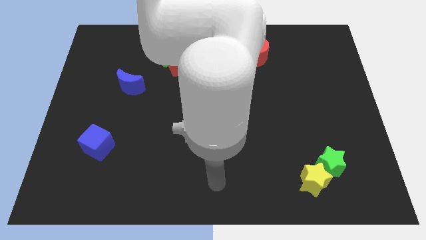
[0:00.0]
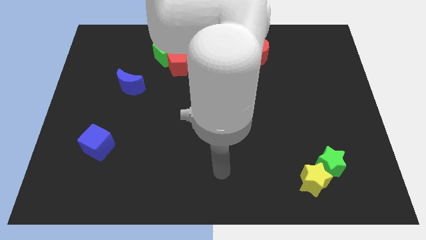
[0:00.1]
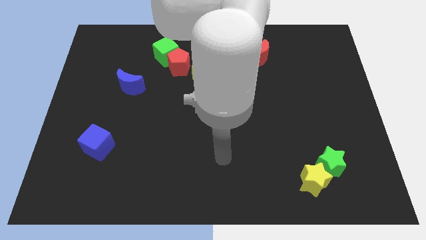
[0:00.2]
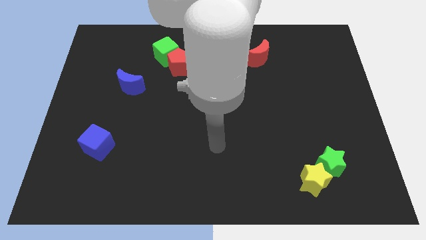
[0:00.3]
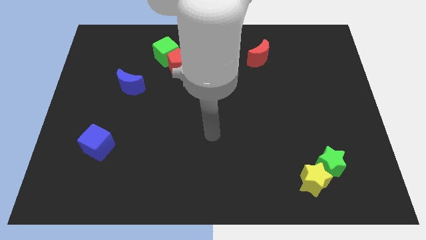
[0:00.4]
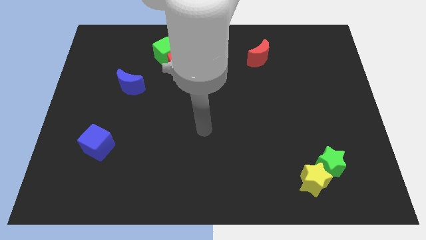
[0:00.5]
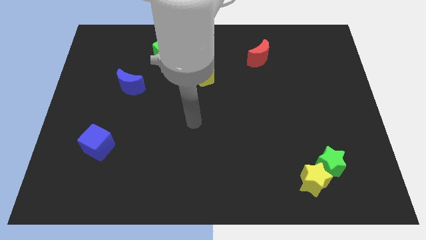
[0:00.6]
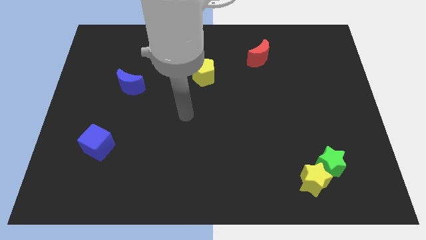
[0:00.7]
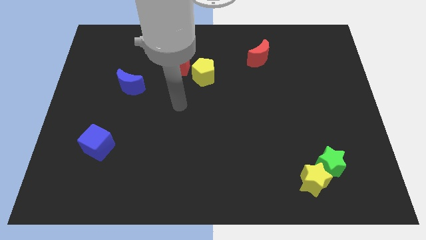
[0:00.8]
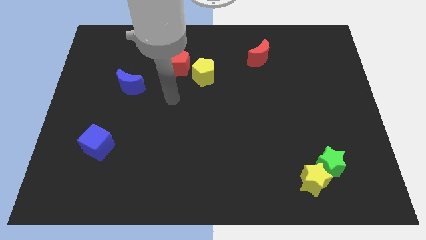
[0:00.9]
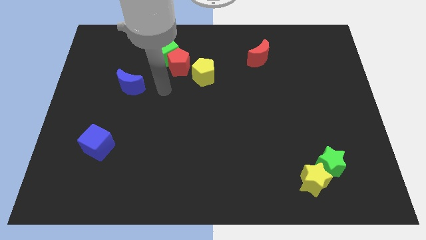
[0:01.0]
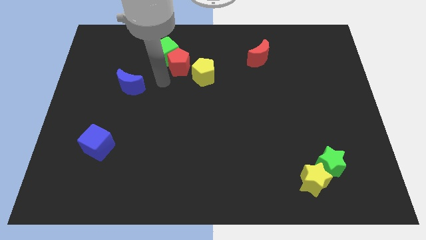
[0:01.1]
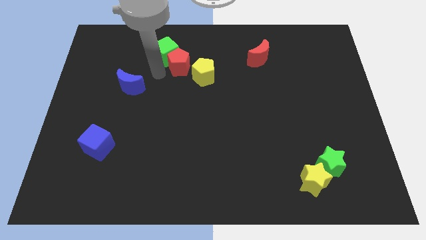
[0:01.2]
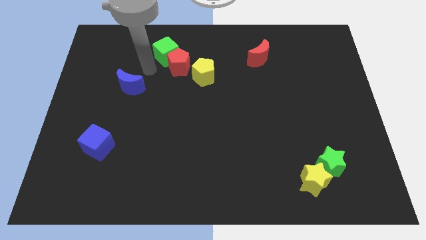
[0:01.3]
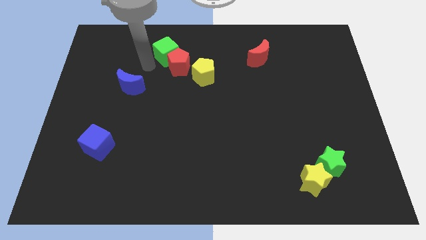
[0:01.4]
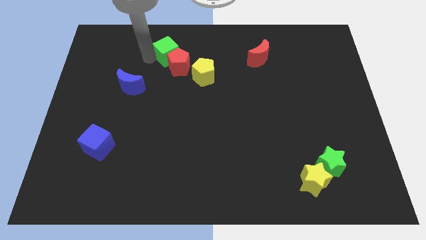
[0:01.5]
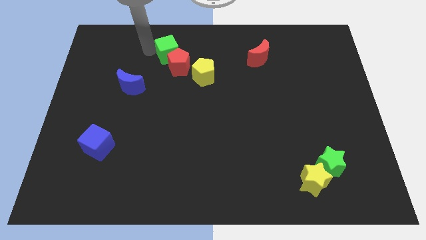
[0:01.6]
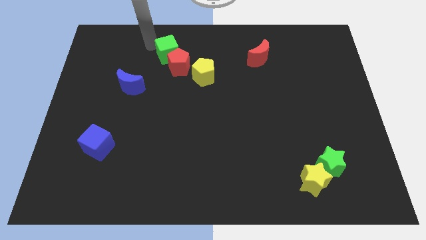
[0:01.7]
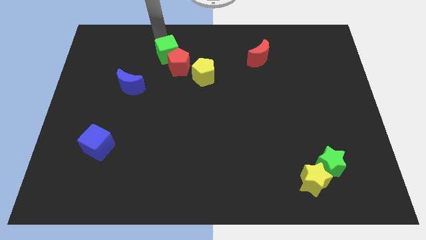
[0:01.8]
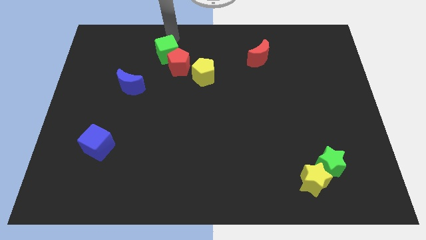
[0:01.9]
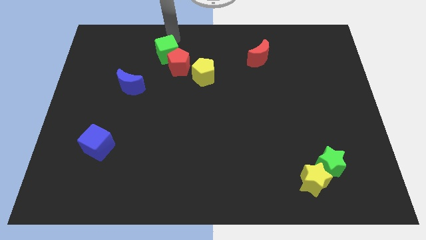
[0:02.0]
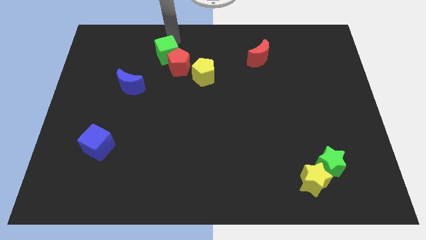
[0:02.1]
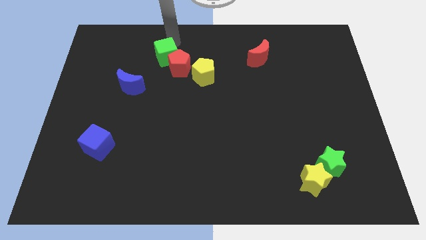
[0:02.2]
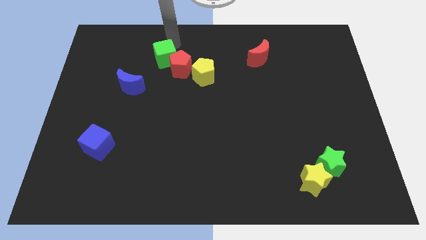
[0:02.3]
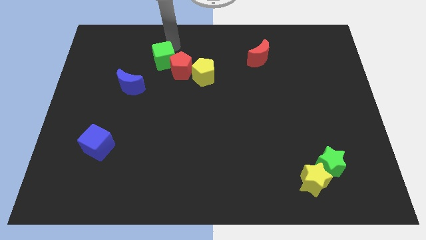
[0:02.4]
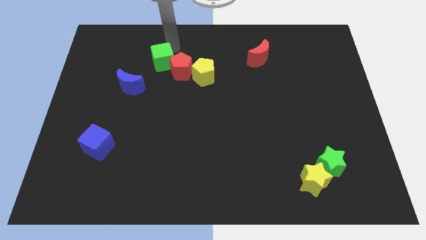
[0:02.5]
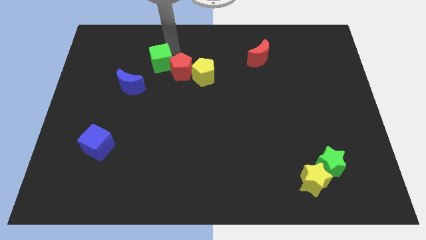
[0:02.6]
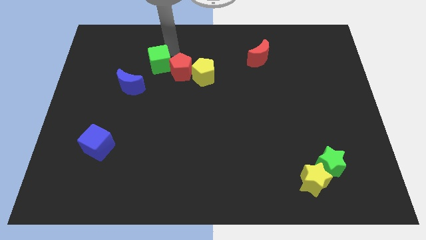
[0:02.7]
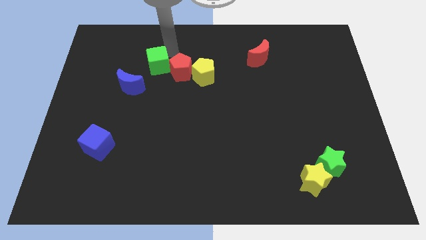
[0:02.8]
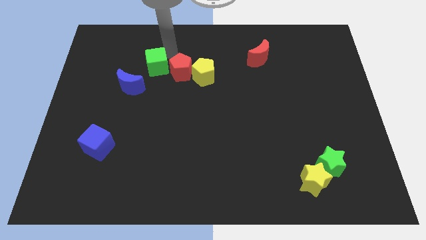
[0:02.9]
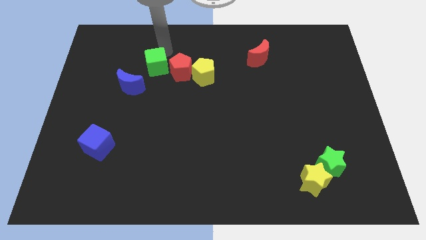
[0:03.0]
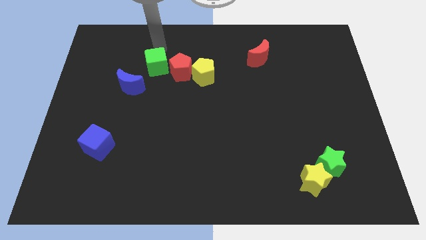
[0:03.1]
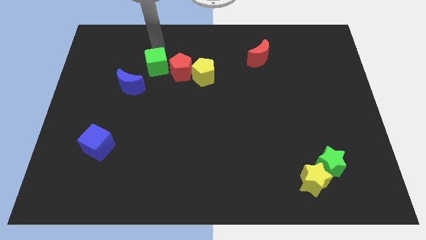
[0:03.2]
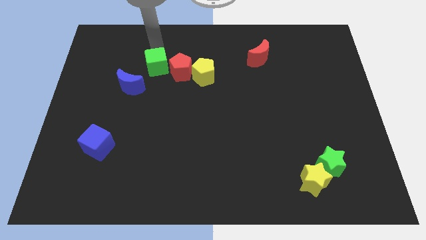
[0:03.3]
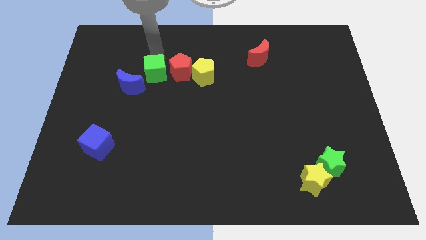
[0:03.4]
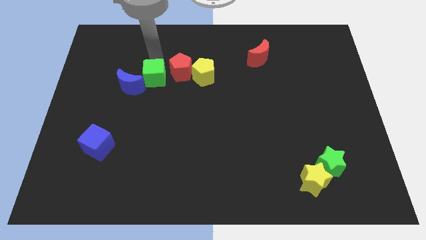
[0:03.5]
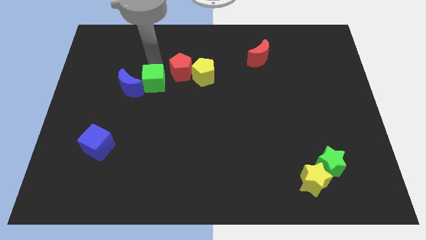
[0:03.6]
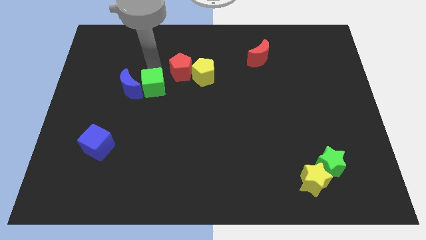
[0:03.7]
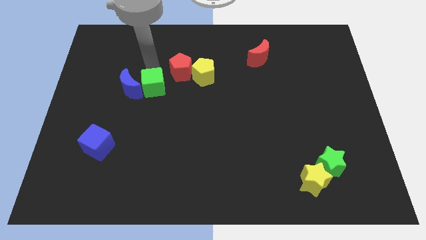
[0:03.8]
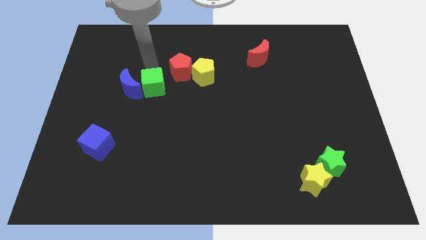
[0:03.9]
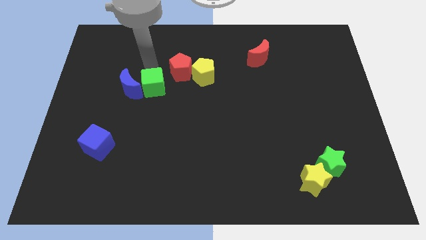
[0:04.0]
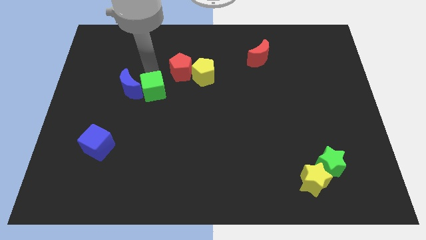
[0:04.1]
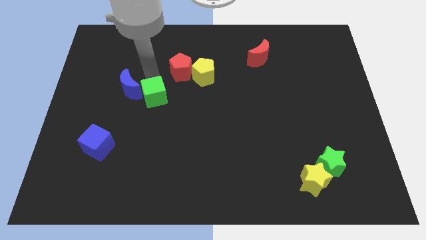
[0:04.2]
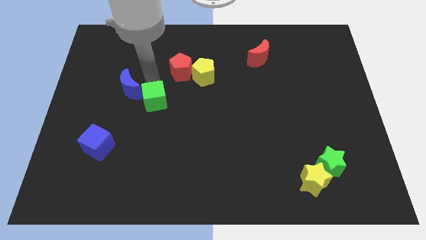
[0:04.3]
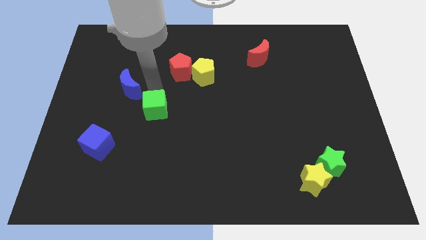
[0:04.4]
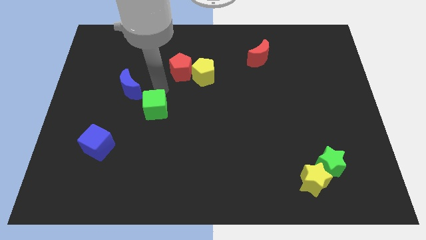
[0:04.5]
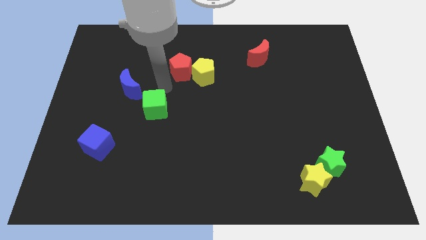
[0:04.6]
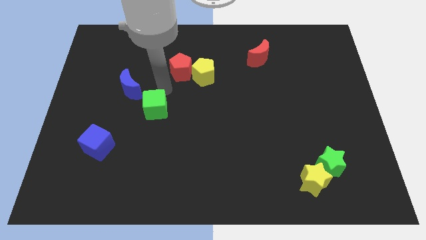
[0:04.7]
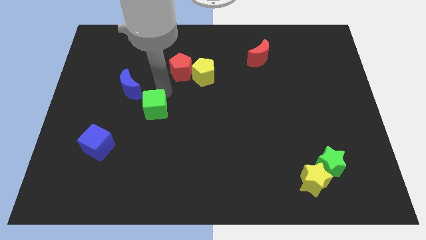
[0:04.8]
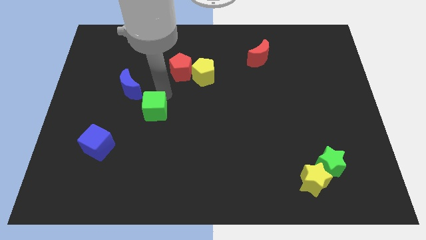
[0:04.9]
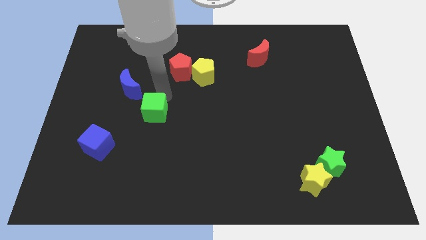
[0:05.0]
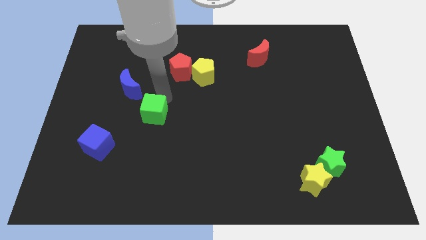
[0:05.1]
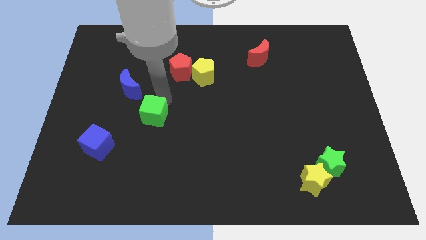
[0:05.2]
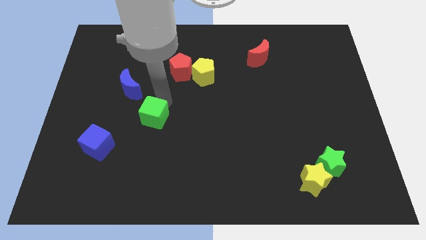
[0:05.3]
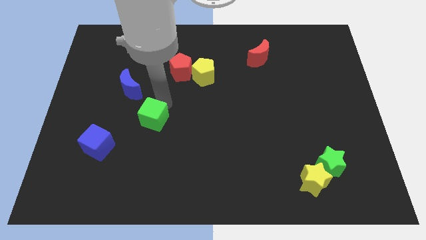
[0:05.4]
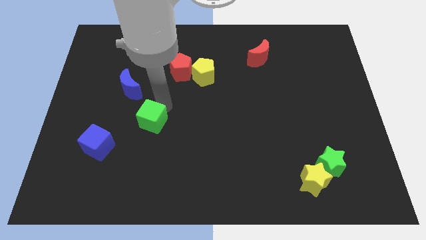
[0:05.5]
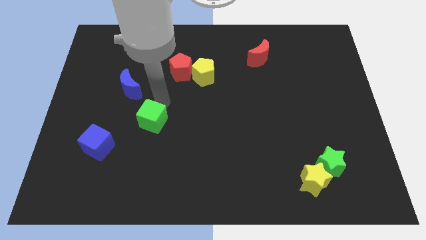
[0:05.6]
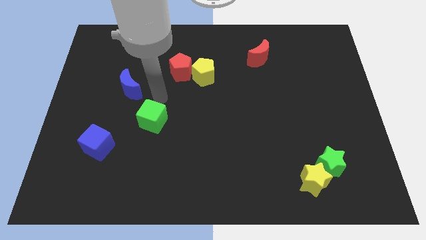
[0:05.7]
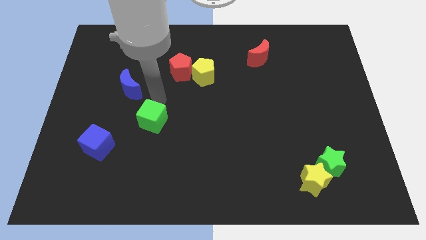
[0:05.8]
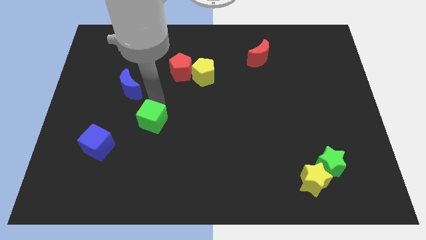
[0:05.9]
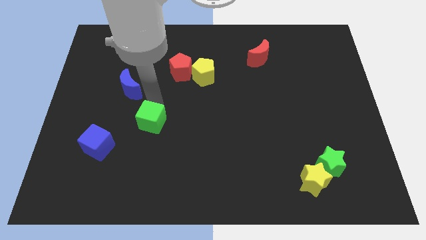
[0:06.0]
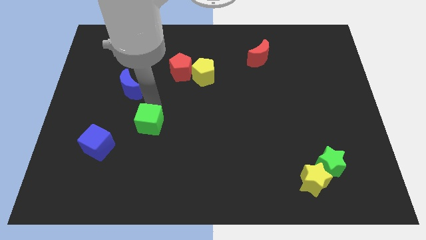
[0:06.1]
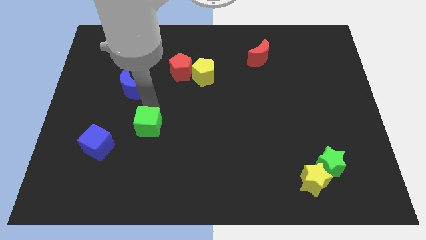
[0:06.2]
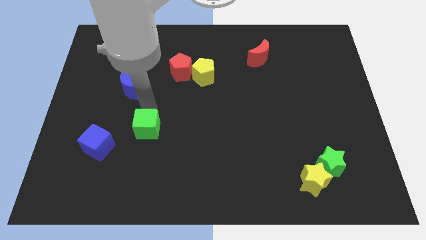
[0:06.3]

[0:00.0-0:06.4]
move the green cube just right of the blue cube

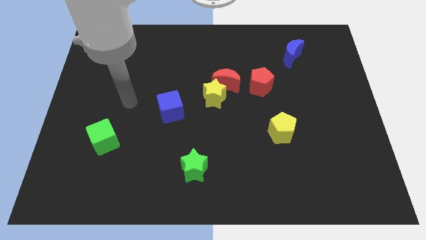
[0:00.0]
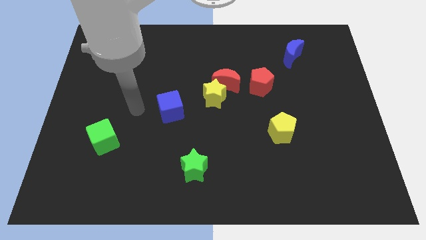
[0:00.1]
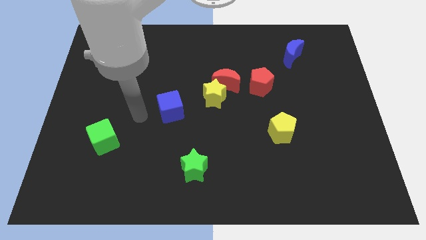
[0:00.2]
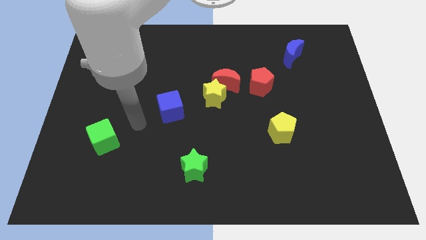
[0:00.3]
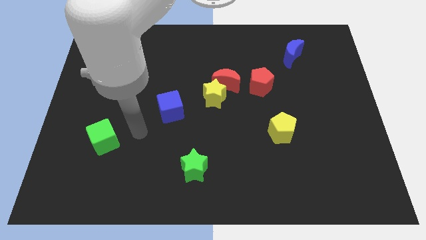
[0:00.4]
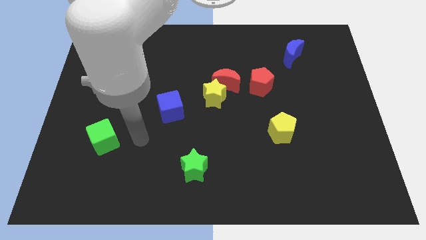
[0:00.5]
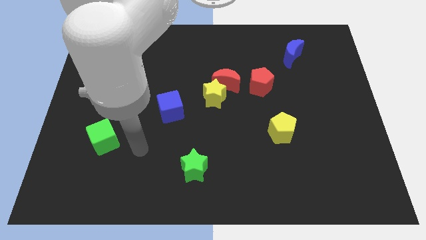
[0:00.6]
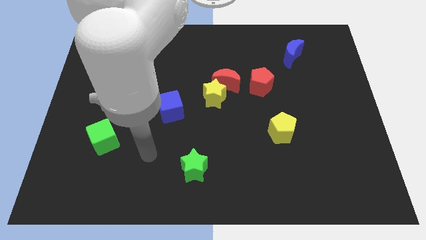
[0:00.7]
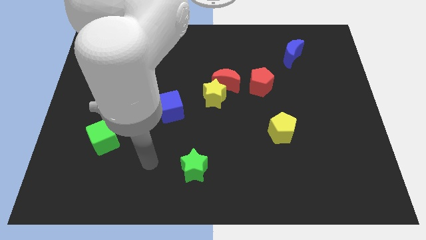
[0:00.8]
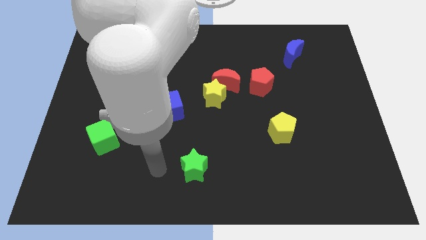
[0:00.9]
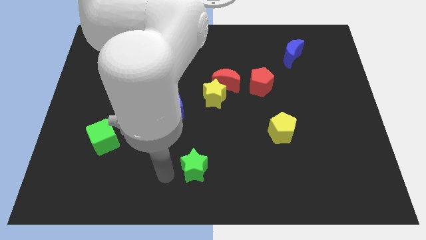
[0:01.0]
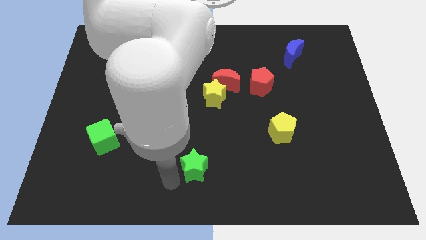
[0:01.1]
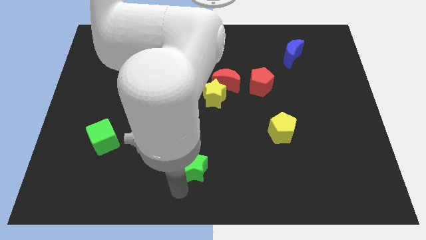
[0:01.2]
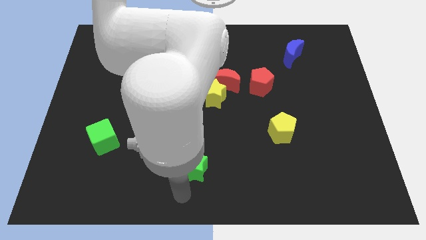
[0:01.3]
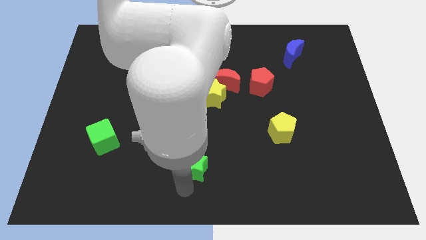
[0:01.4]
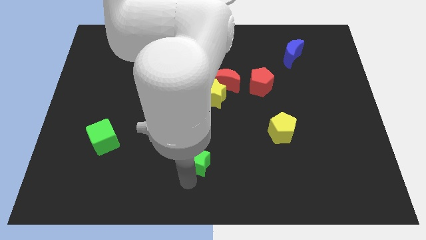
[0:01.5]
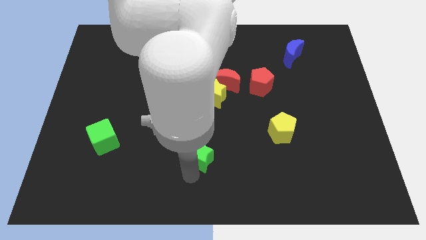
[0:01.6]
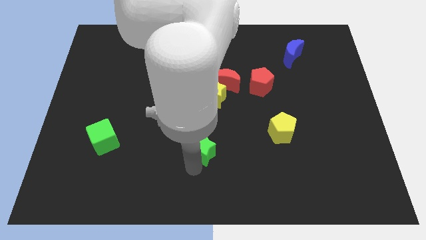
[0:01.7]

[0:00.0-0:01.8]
slide the green star below the yellow star
